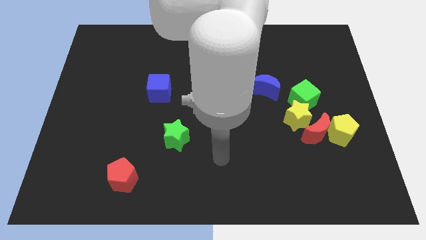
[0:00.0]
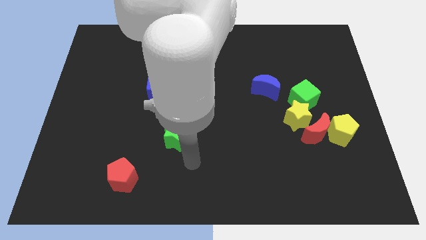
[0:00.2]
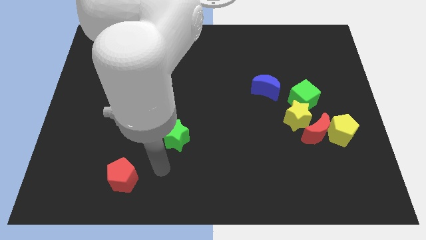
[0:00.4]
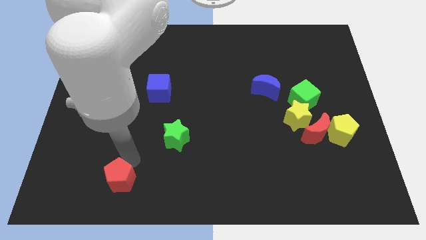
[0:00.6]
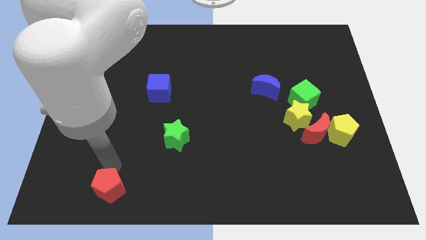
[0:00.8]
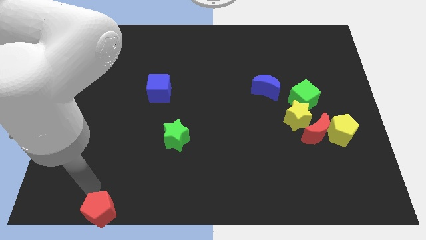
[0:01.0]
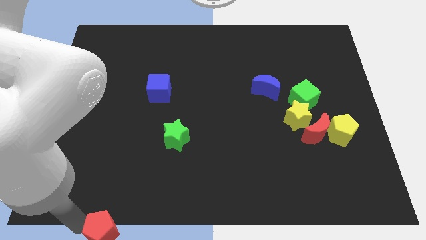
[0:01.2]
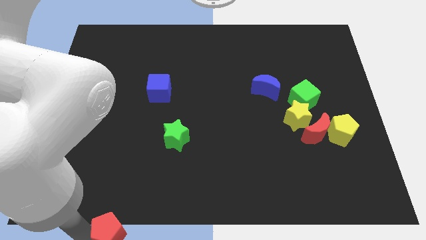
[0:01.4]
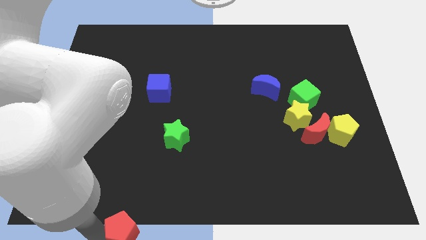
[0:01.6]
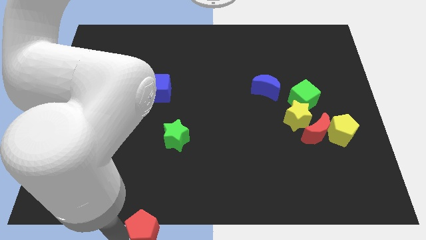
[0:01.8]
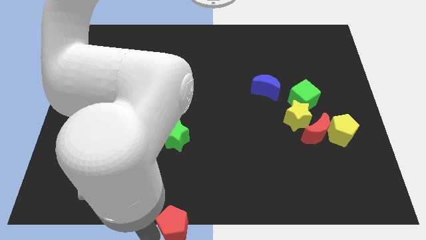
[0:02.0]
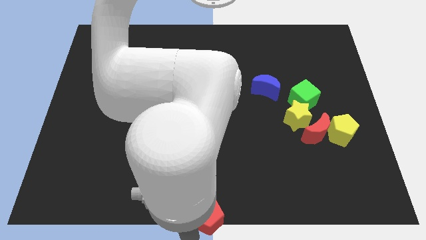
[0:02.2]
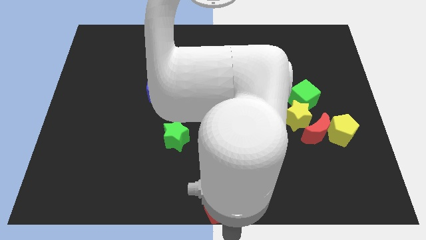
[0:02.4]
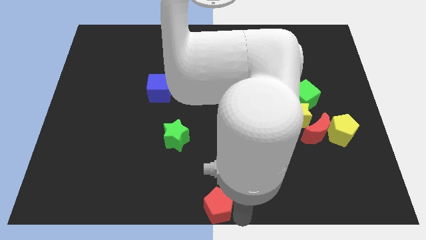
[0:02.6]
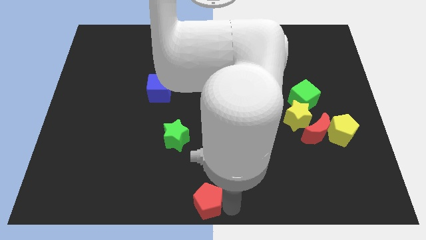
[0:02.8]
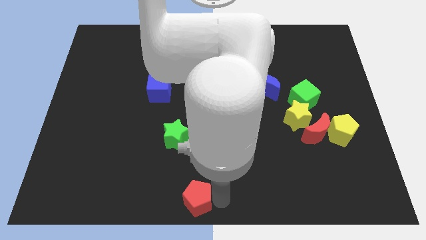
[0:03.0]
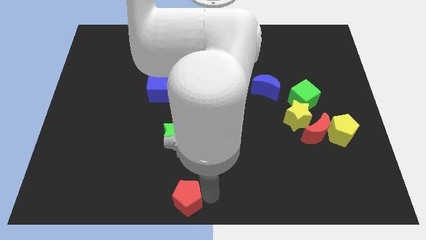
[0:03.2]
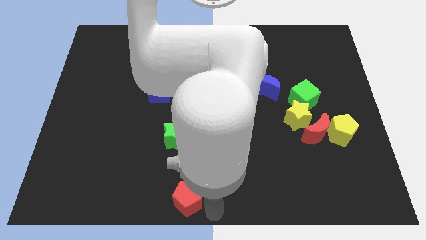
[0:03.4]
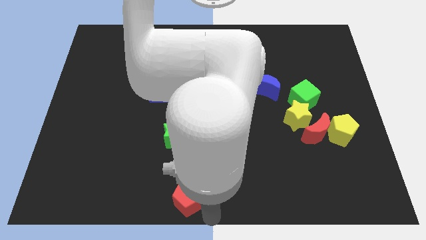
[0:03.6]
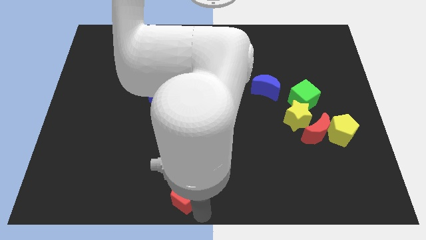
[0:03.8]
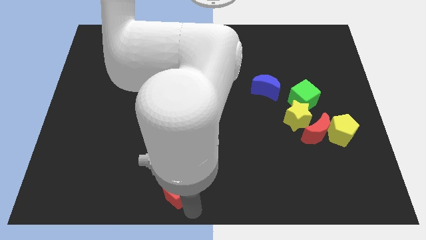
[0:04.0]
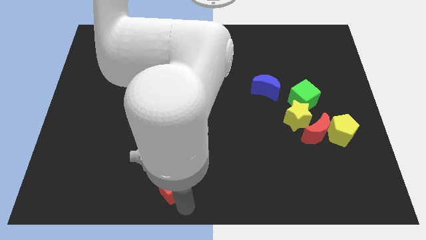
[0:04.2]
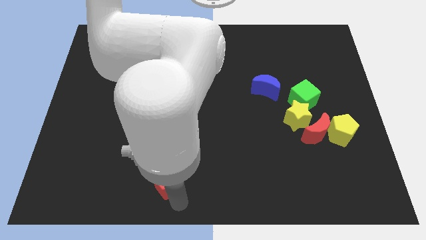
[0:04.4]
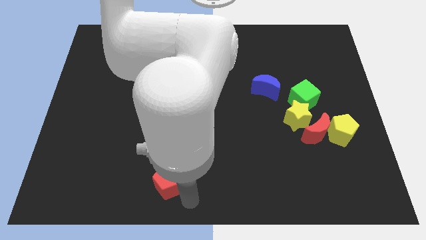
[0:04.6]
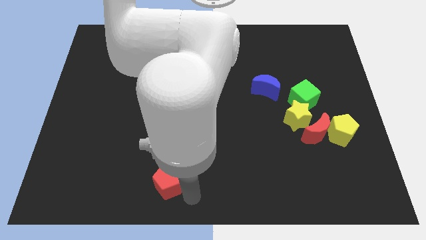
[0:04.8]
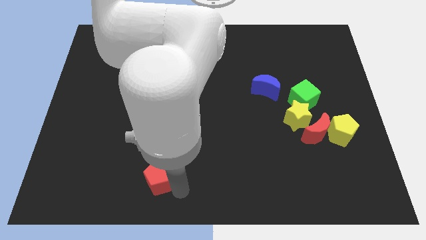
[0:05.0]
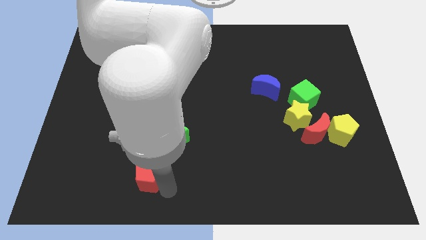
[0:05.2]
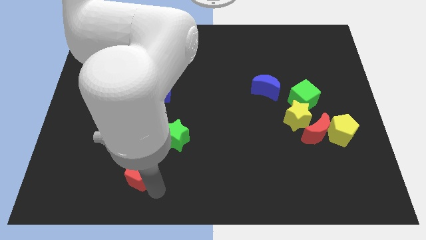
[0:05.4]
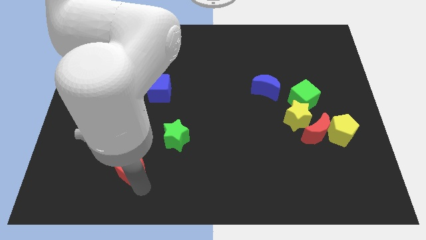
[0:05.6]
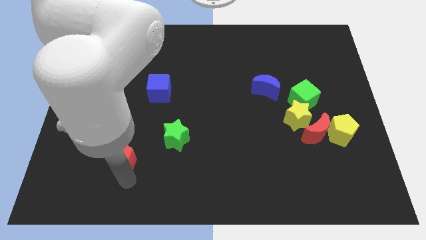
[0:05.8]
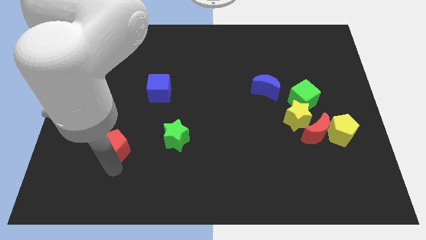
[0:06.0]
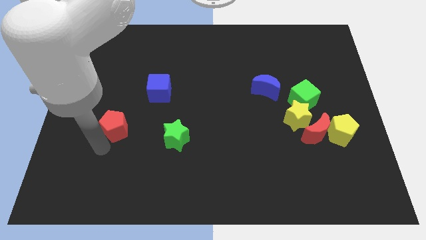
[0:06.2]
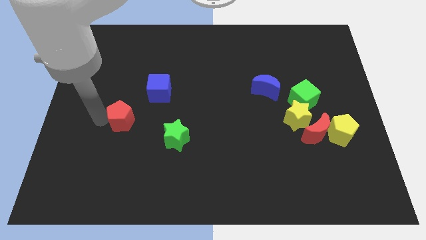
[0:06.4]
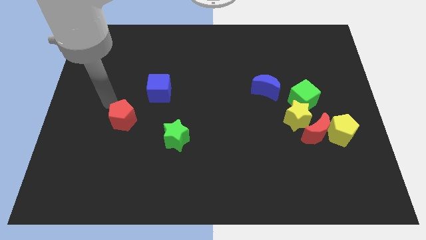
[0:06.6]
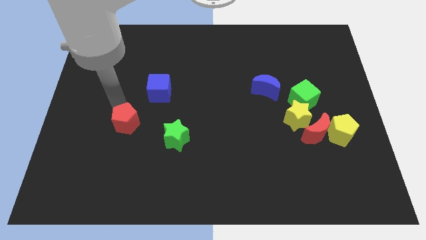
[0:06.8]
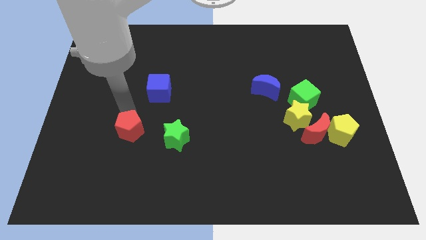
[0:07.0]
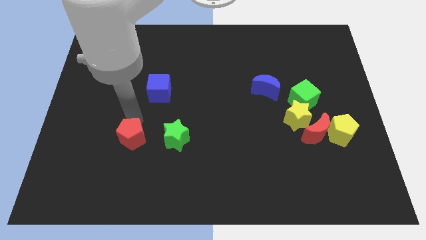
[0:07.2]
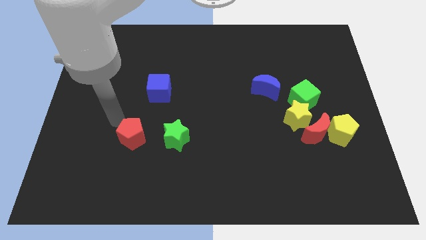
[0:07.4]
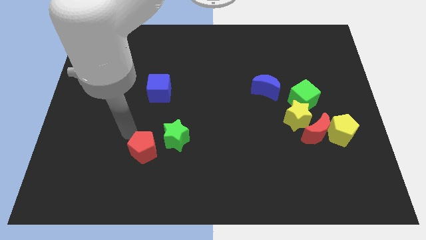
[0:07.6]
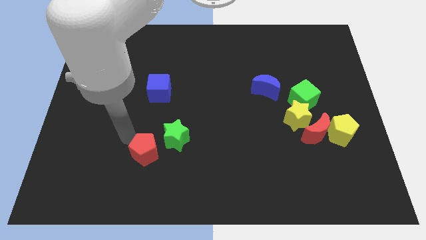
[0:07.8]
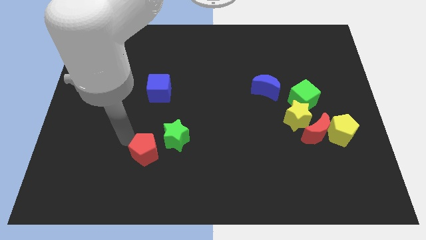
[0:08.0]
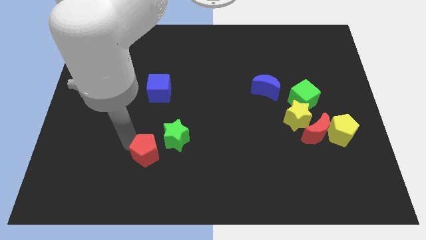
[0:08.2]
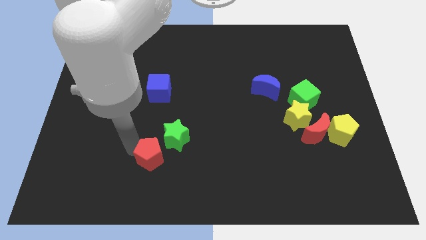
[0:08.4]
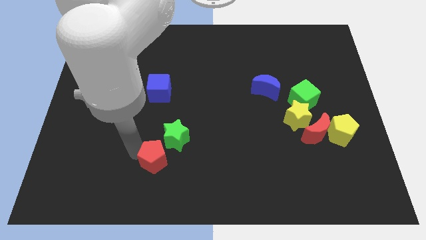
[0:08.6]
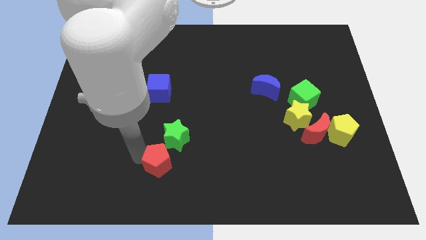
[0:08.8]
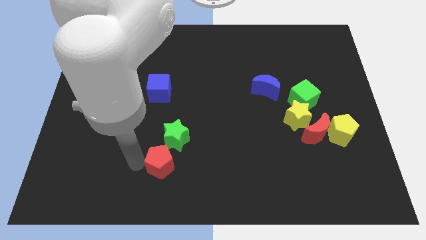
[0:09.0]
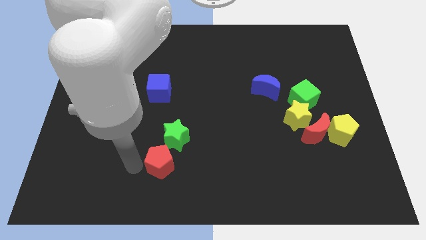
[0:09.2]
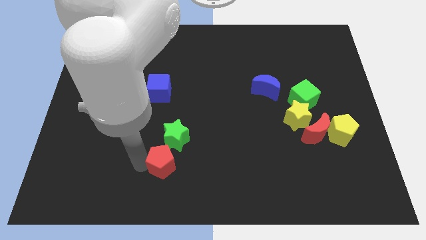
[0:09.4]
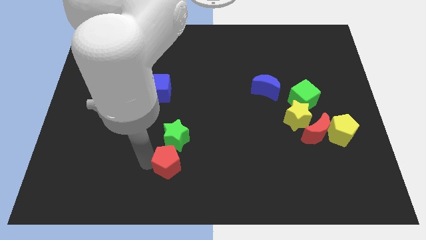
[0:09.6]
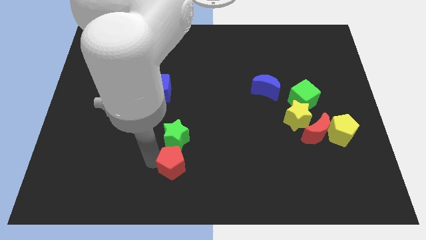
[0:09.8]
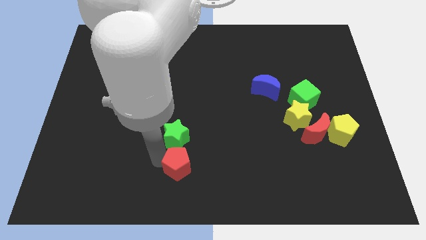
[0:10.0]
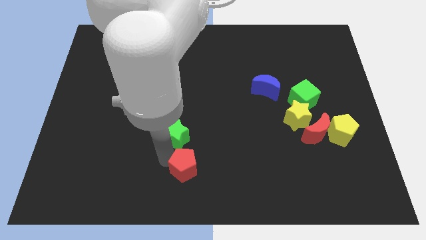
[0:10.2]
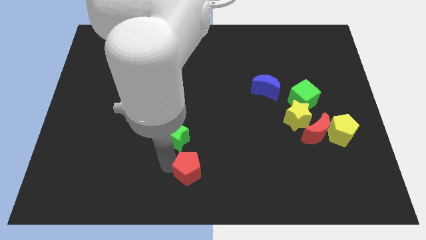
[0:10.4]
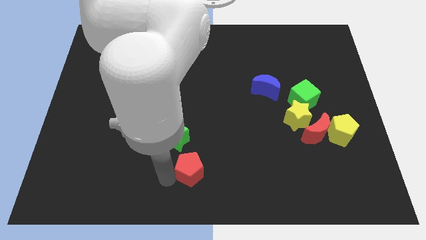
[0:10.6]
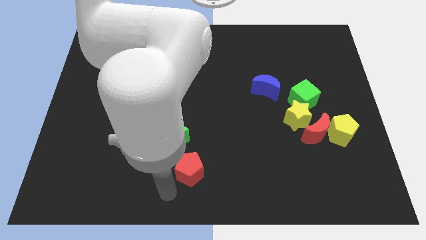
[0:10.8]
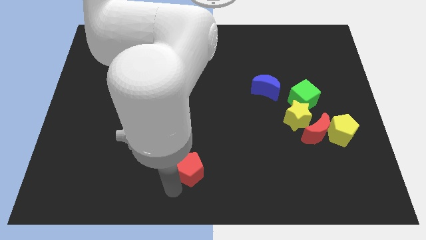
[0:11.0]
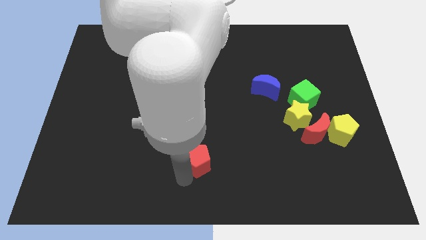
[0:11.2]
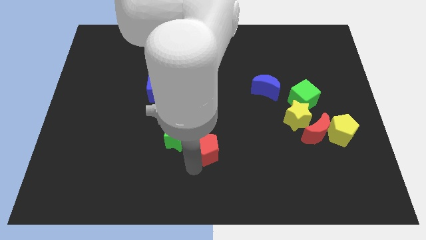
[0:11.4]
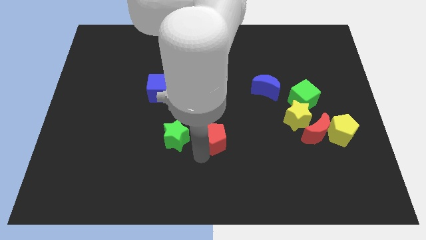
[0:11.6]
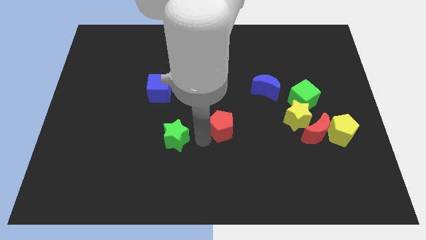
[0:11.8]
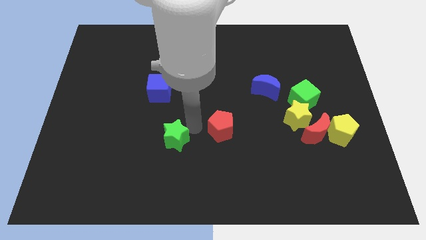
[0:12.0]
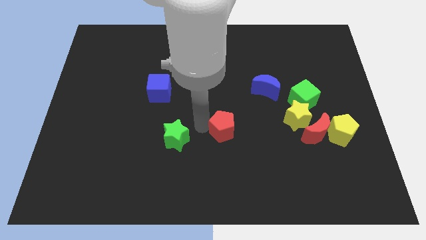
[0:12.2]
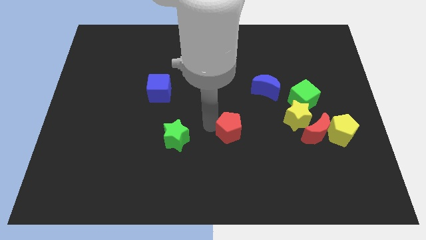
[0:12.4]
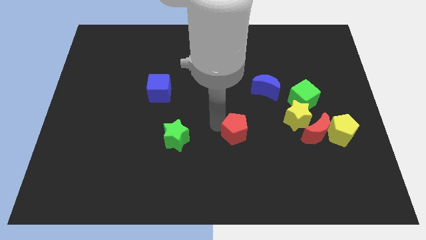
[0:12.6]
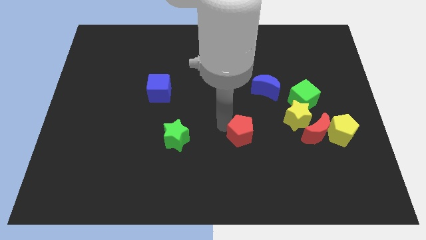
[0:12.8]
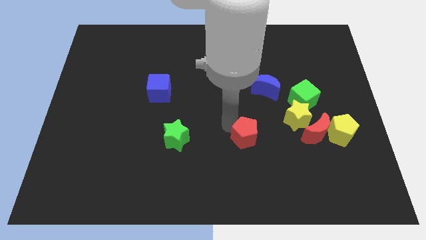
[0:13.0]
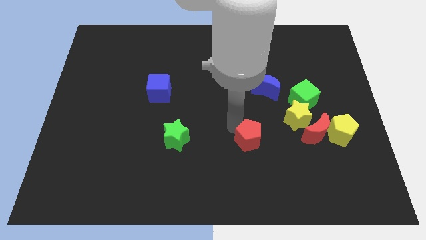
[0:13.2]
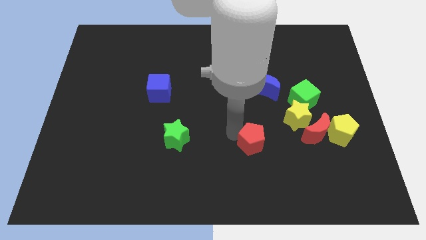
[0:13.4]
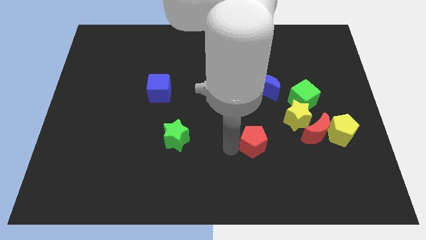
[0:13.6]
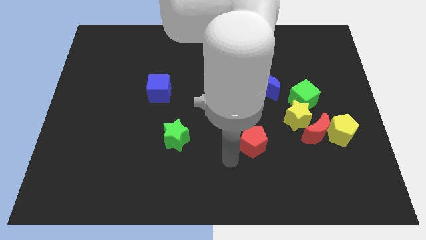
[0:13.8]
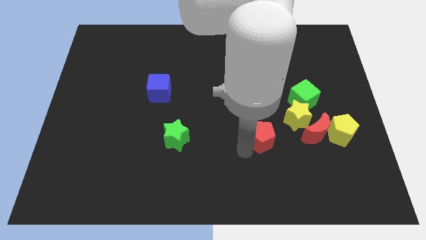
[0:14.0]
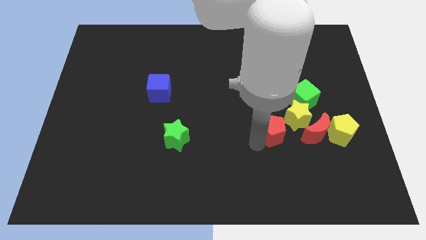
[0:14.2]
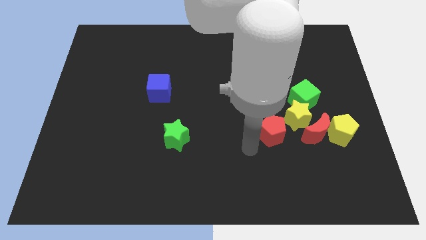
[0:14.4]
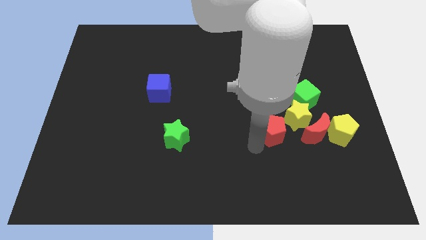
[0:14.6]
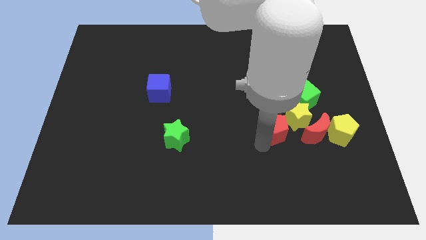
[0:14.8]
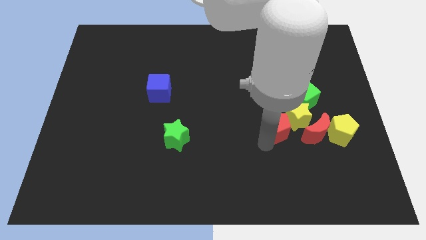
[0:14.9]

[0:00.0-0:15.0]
put the red pentagon close to the yellow star

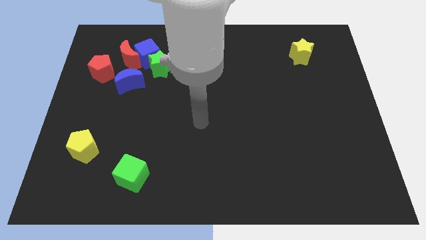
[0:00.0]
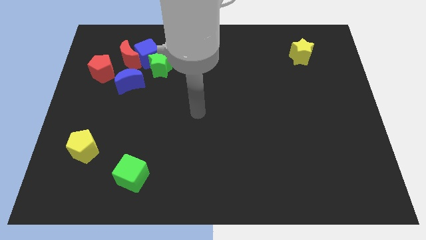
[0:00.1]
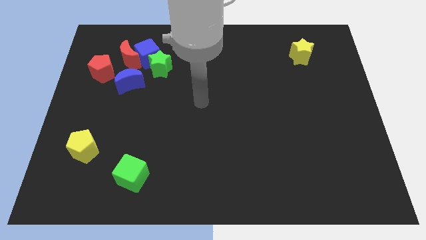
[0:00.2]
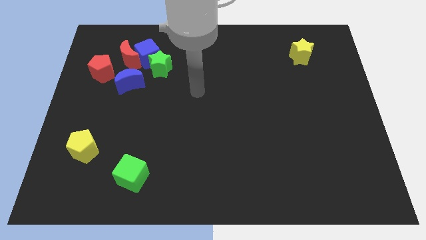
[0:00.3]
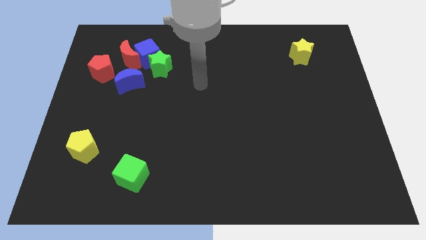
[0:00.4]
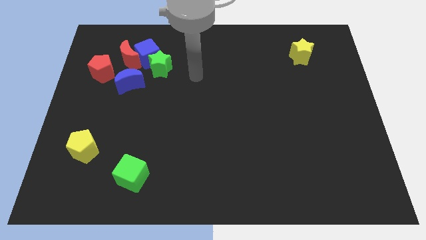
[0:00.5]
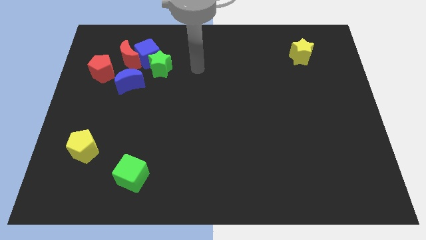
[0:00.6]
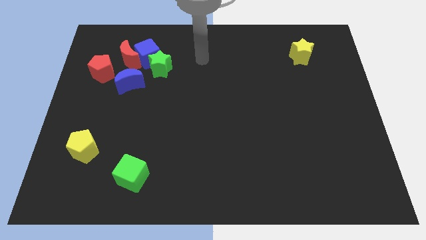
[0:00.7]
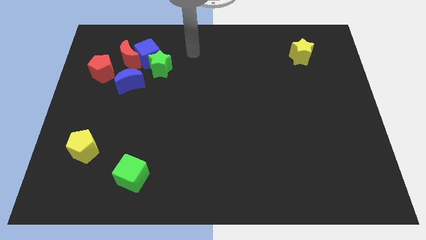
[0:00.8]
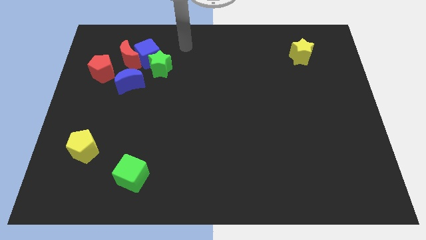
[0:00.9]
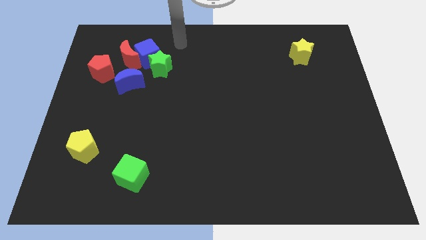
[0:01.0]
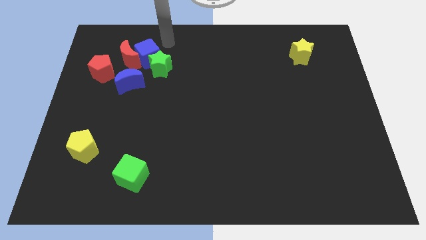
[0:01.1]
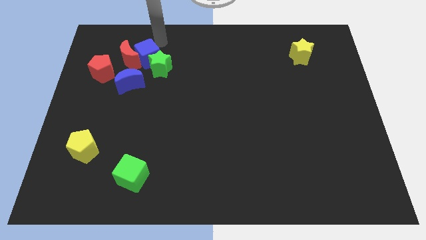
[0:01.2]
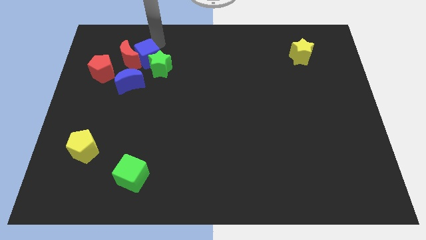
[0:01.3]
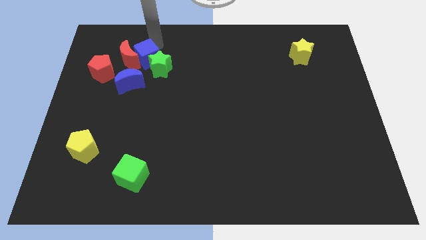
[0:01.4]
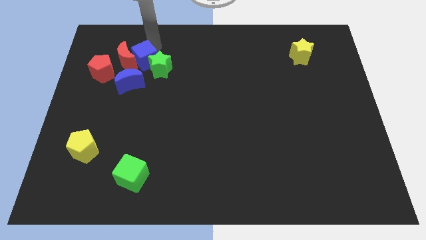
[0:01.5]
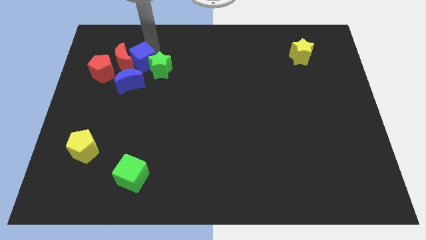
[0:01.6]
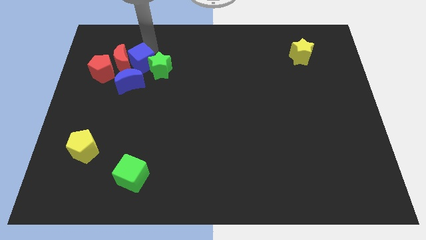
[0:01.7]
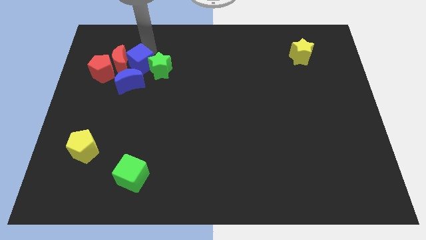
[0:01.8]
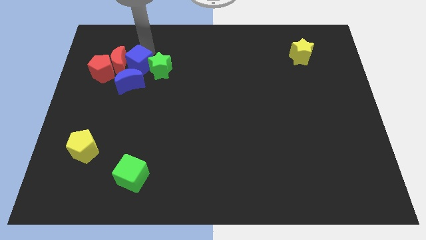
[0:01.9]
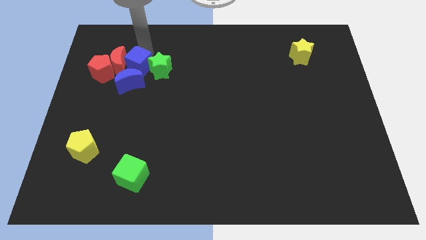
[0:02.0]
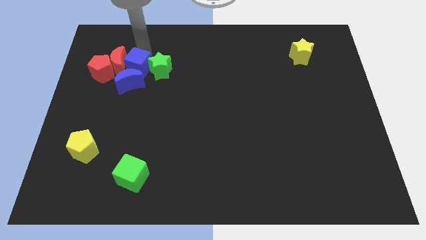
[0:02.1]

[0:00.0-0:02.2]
put the blue cube to the blue moon
